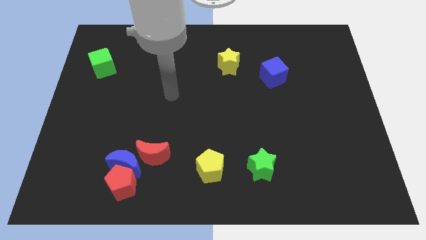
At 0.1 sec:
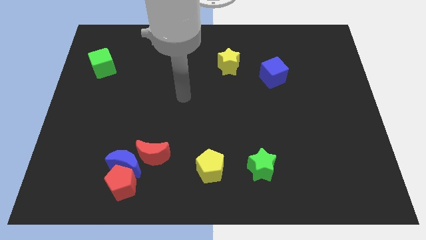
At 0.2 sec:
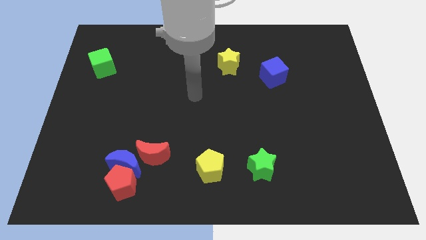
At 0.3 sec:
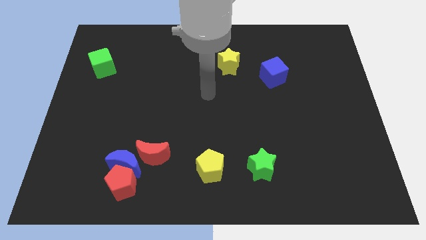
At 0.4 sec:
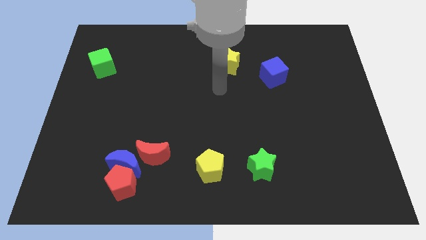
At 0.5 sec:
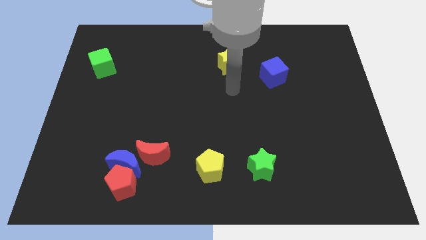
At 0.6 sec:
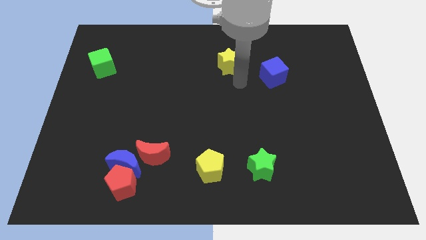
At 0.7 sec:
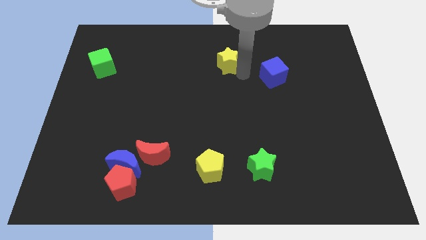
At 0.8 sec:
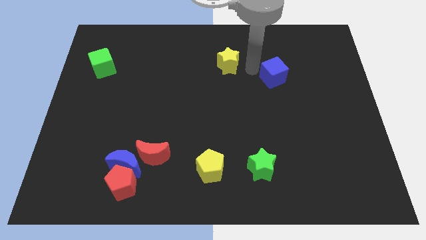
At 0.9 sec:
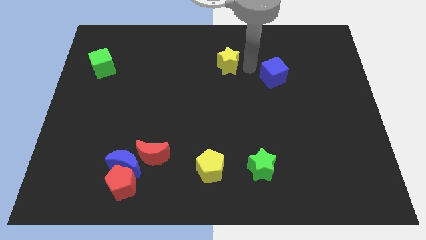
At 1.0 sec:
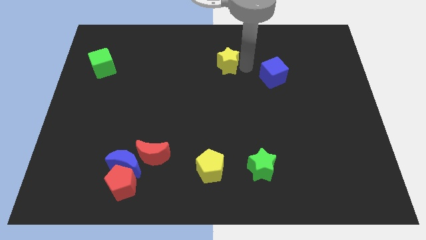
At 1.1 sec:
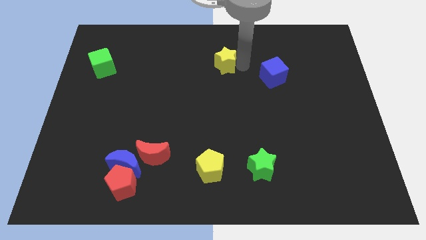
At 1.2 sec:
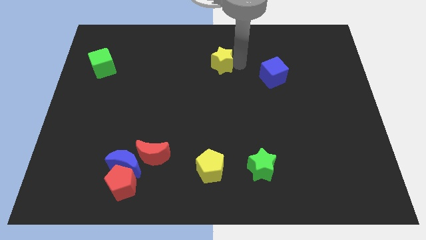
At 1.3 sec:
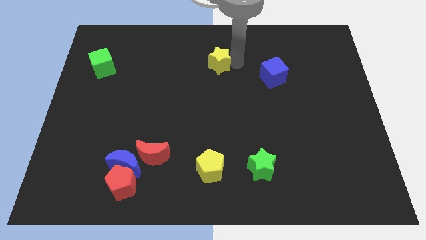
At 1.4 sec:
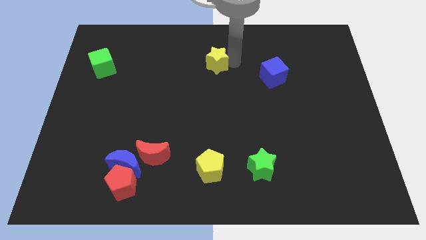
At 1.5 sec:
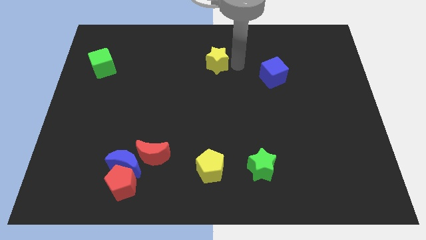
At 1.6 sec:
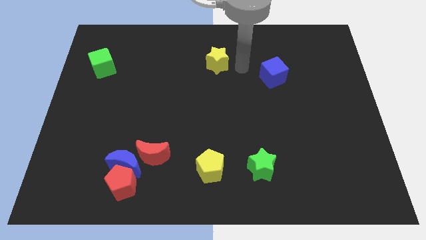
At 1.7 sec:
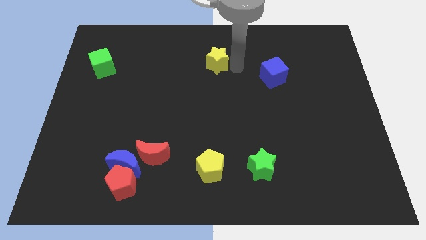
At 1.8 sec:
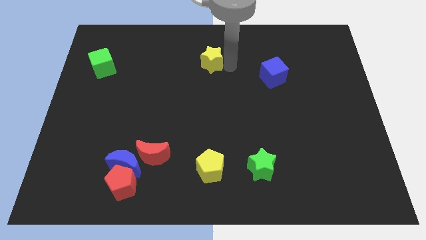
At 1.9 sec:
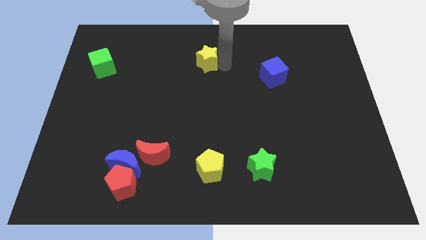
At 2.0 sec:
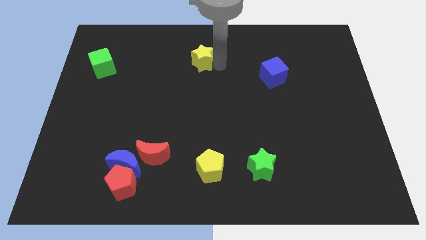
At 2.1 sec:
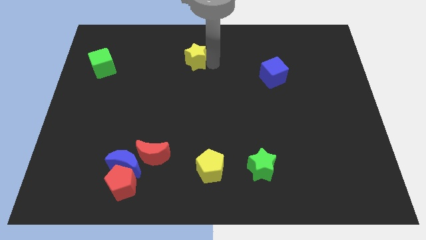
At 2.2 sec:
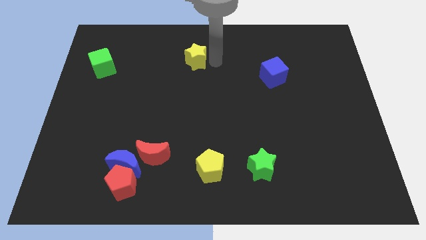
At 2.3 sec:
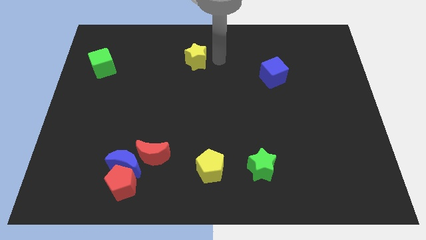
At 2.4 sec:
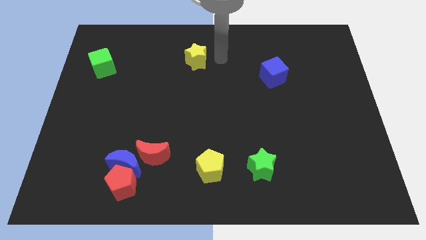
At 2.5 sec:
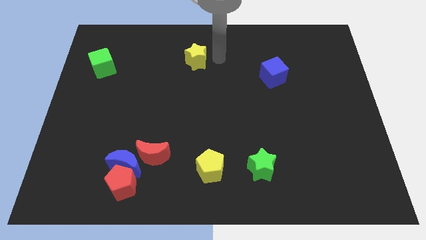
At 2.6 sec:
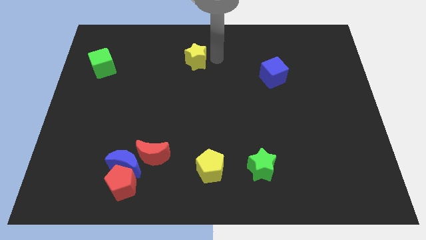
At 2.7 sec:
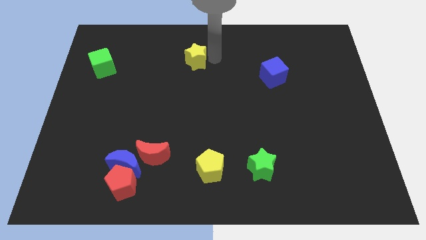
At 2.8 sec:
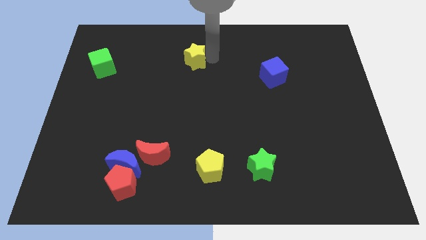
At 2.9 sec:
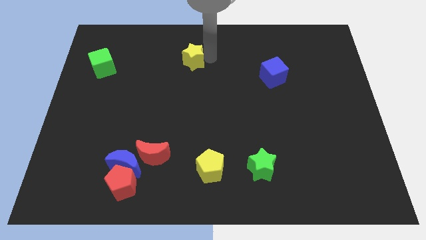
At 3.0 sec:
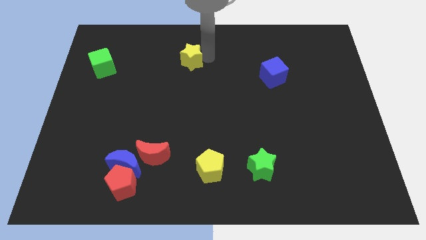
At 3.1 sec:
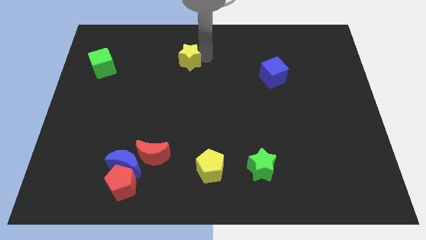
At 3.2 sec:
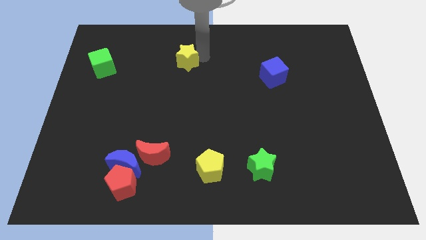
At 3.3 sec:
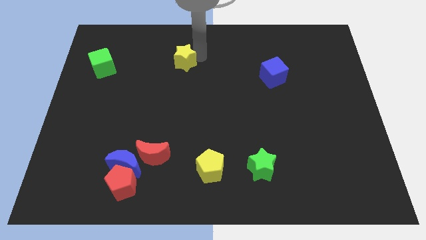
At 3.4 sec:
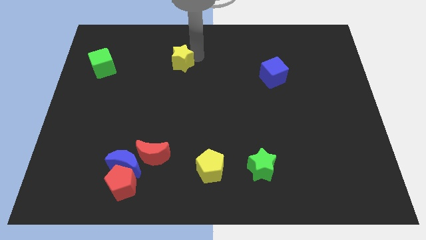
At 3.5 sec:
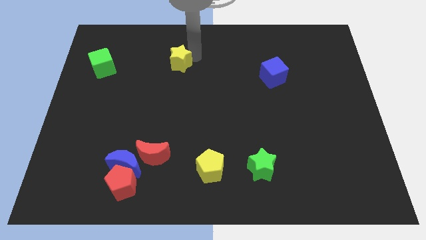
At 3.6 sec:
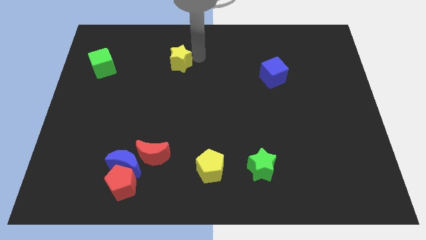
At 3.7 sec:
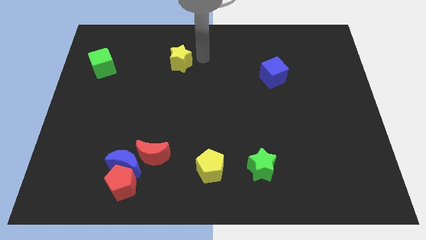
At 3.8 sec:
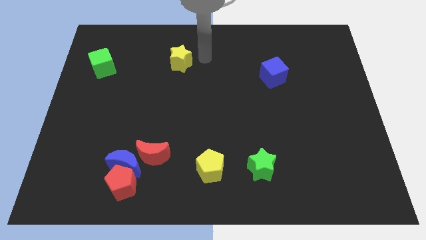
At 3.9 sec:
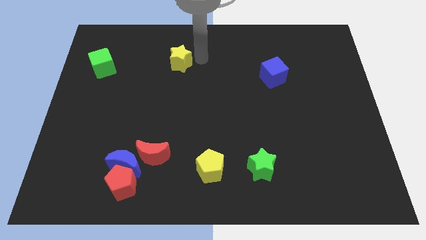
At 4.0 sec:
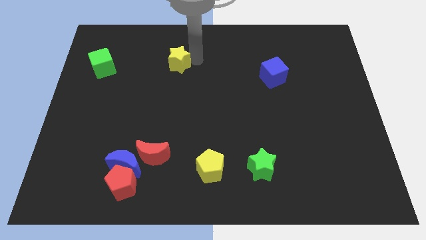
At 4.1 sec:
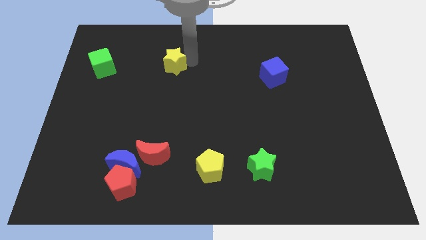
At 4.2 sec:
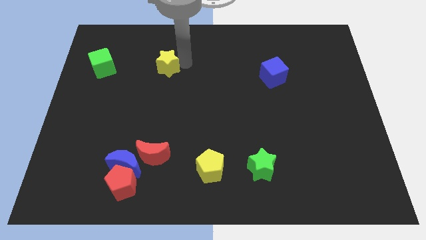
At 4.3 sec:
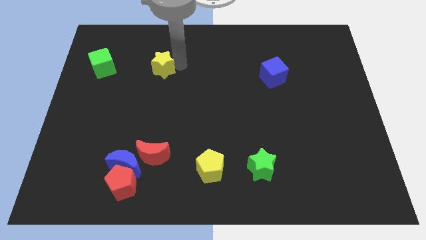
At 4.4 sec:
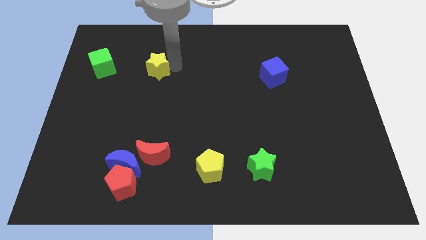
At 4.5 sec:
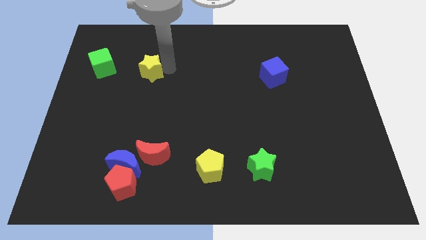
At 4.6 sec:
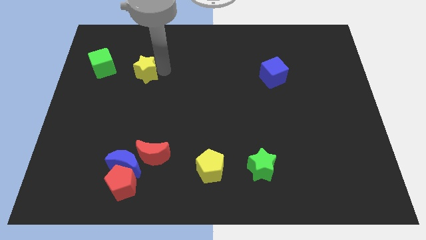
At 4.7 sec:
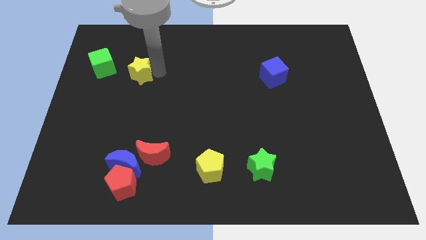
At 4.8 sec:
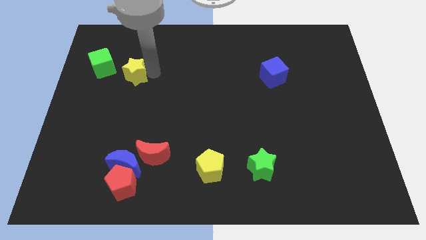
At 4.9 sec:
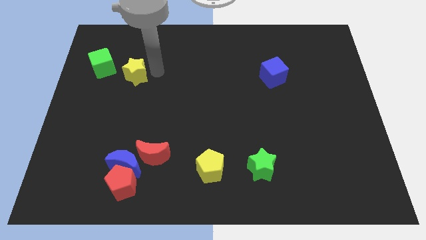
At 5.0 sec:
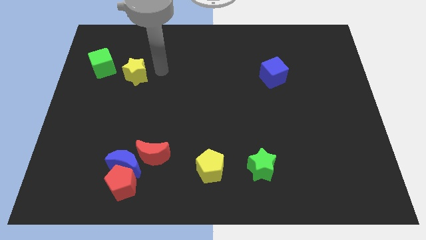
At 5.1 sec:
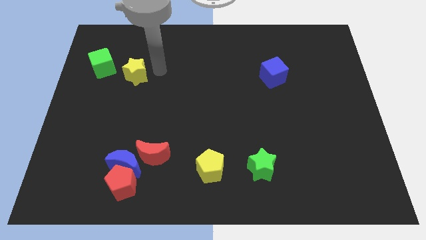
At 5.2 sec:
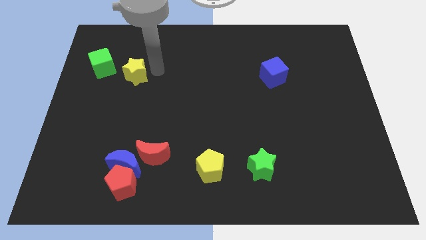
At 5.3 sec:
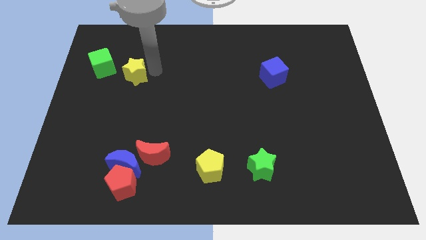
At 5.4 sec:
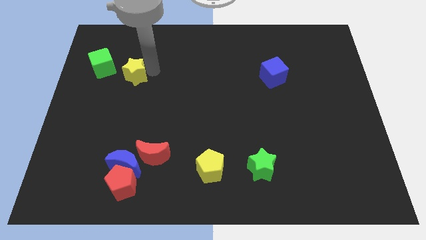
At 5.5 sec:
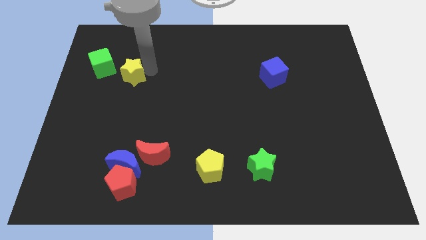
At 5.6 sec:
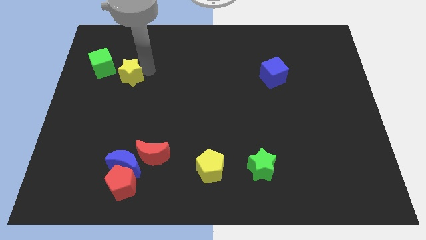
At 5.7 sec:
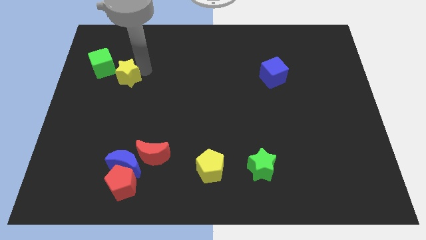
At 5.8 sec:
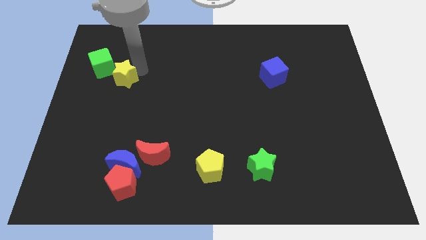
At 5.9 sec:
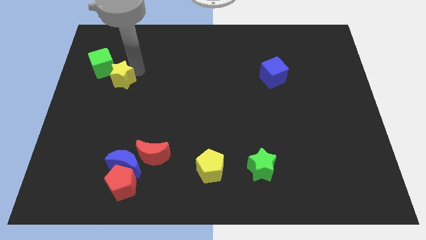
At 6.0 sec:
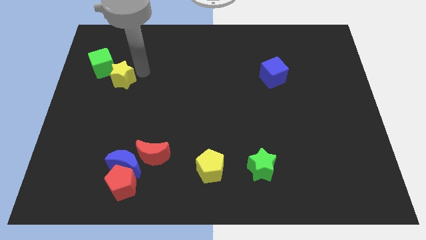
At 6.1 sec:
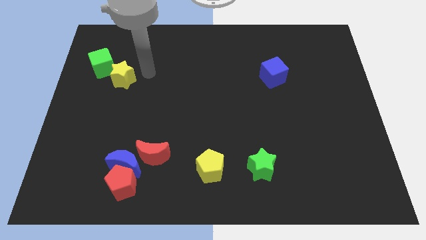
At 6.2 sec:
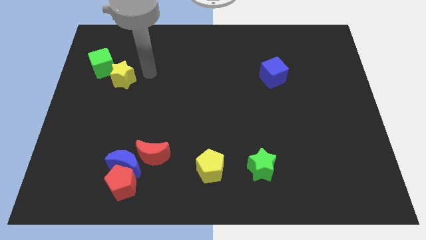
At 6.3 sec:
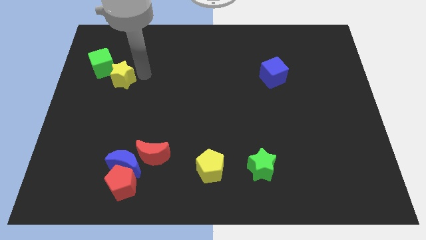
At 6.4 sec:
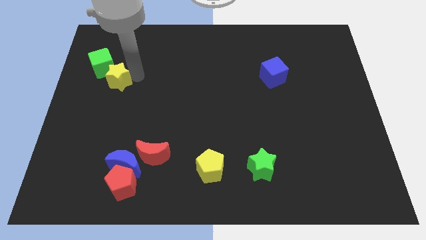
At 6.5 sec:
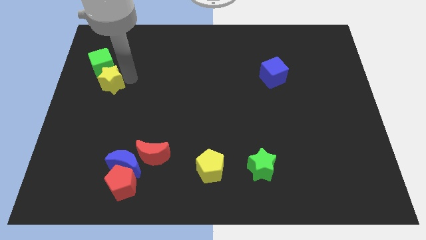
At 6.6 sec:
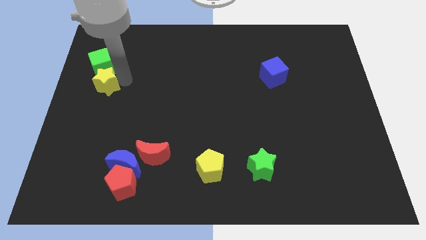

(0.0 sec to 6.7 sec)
push the yellow star to the left side
